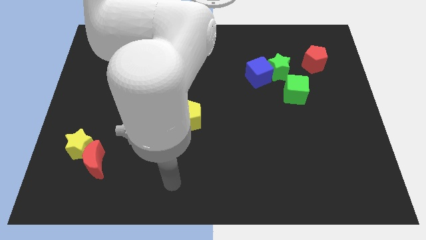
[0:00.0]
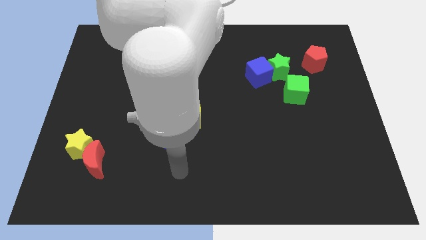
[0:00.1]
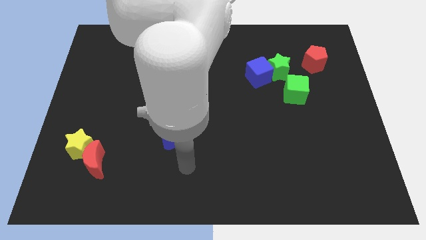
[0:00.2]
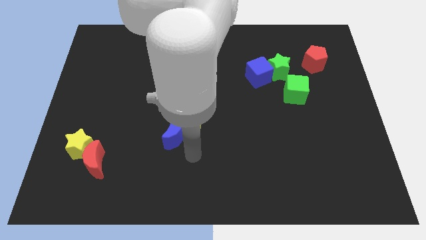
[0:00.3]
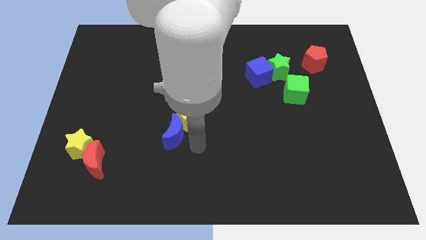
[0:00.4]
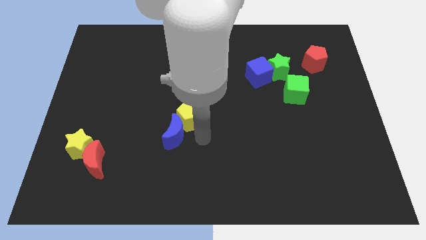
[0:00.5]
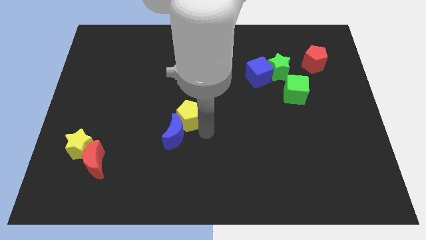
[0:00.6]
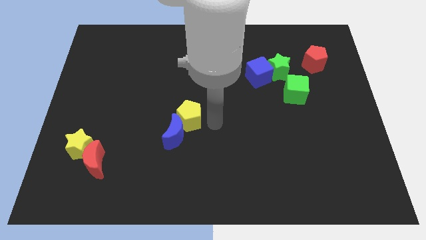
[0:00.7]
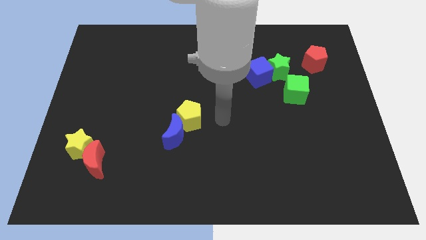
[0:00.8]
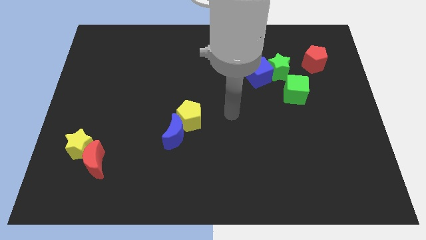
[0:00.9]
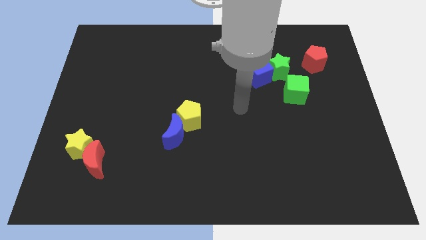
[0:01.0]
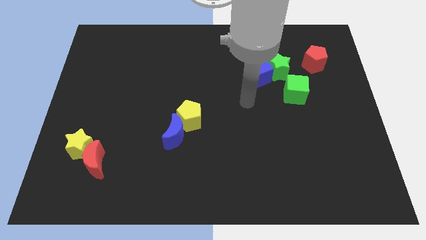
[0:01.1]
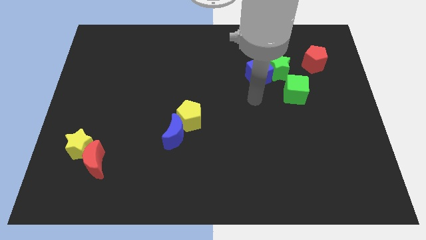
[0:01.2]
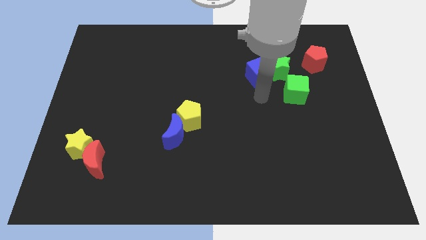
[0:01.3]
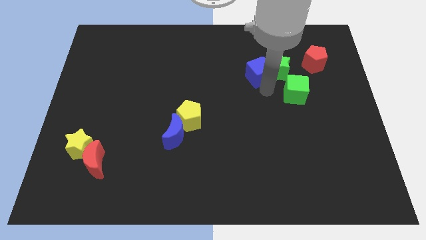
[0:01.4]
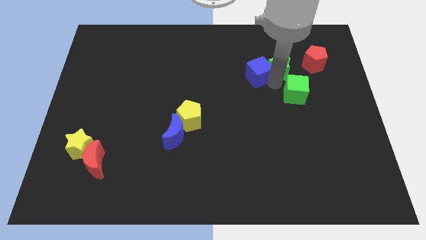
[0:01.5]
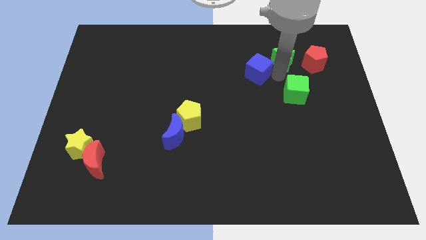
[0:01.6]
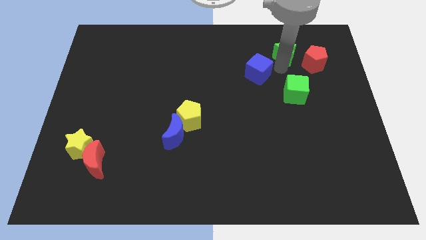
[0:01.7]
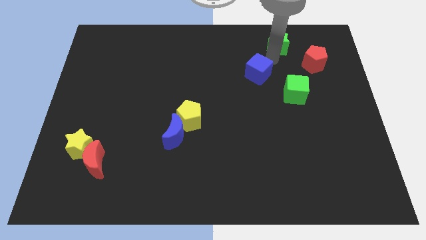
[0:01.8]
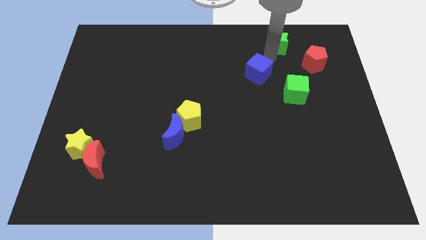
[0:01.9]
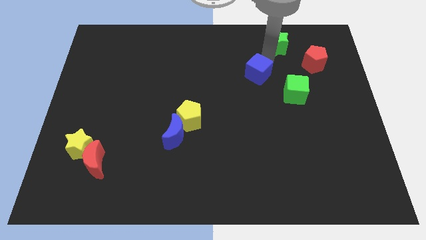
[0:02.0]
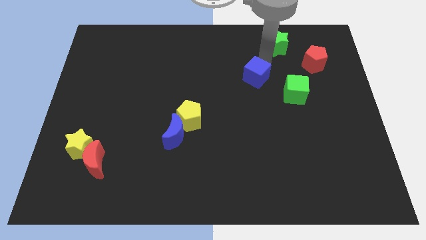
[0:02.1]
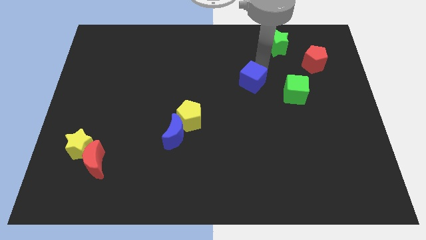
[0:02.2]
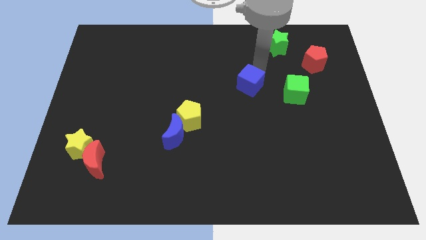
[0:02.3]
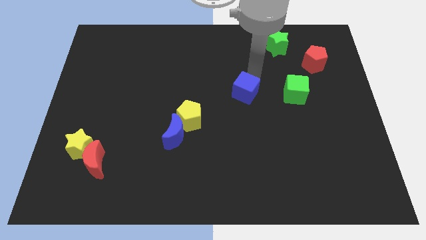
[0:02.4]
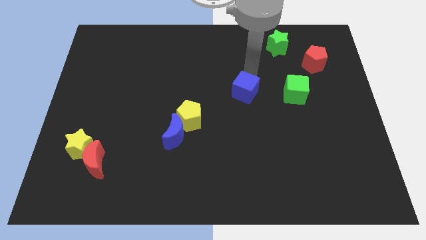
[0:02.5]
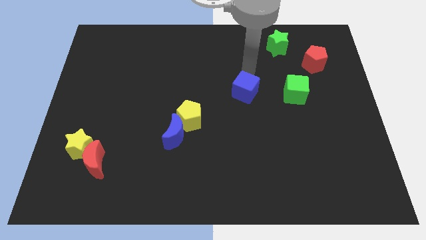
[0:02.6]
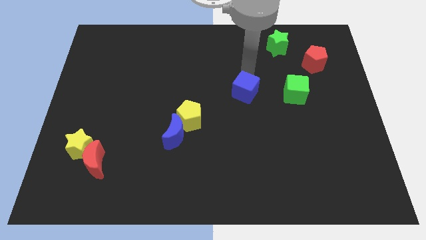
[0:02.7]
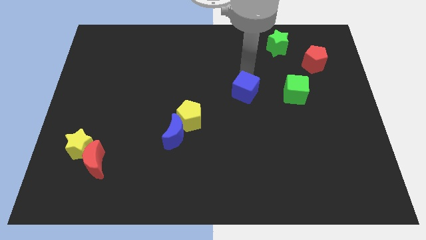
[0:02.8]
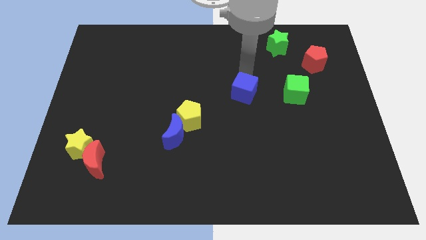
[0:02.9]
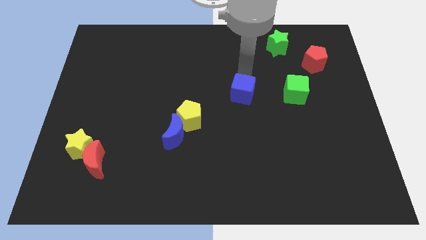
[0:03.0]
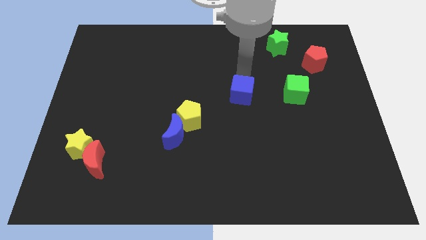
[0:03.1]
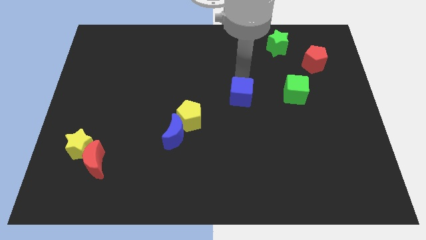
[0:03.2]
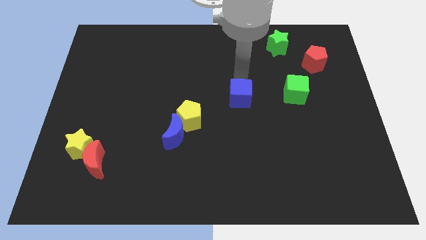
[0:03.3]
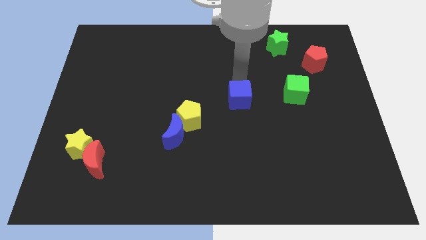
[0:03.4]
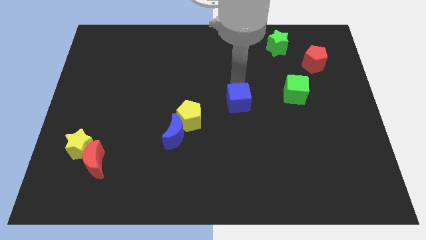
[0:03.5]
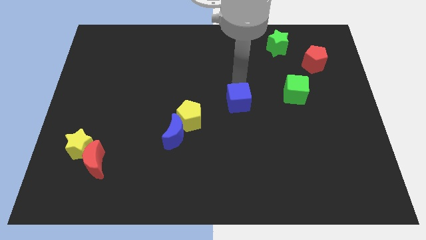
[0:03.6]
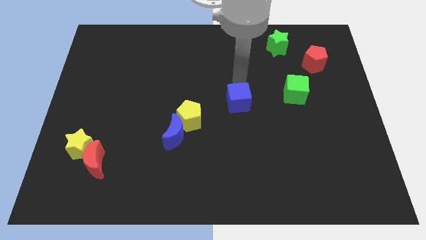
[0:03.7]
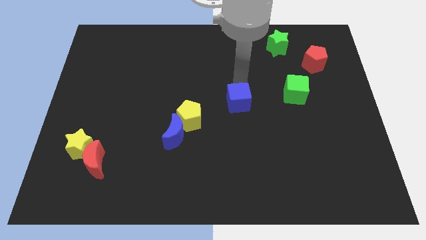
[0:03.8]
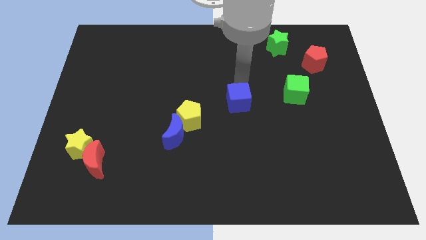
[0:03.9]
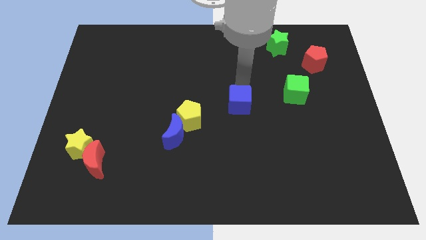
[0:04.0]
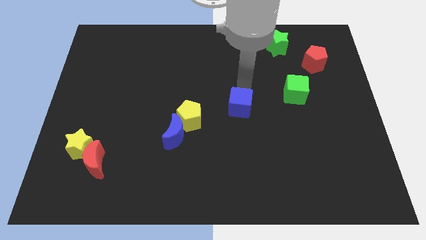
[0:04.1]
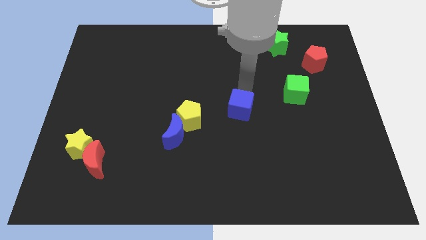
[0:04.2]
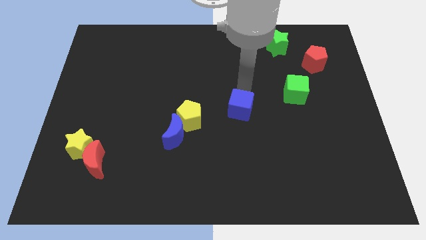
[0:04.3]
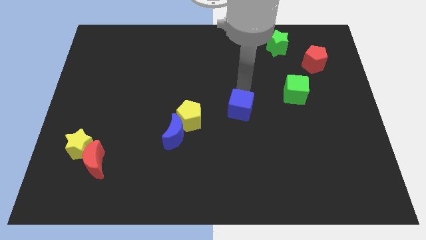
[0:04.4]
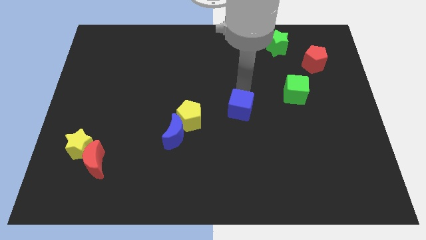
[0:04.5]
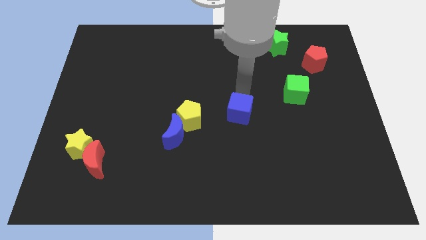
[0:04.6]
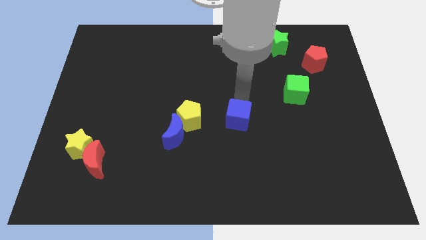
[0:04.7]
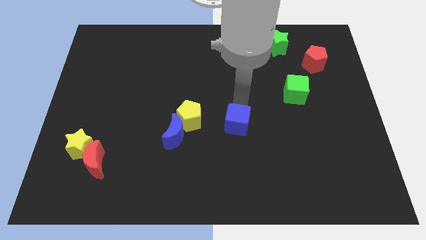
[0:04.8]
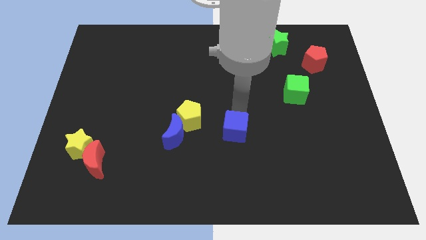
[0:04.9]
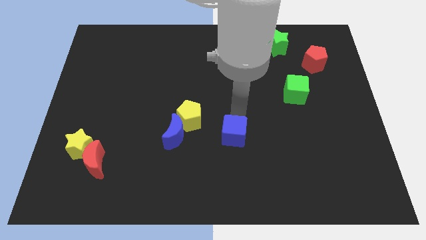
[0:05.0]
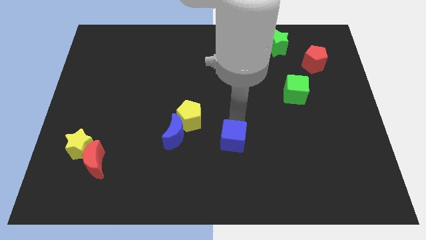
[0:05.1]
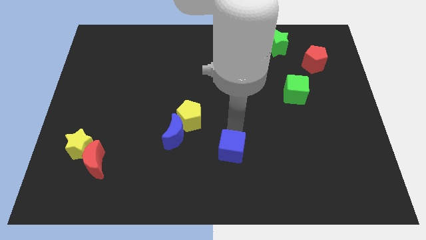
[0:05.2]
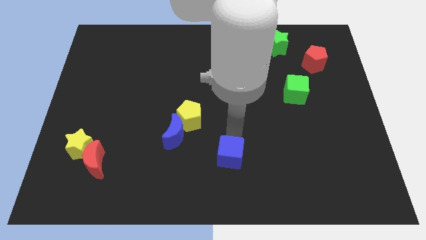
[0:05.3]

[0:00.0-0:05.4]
move the blue cube to the bottom side

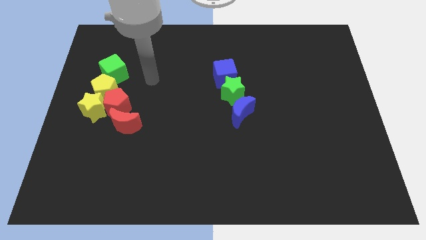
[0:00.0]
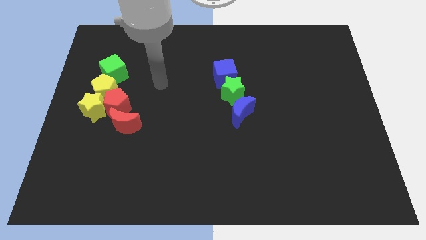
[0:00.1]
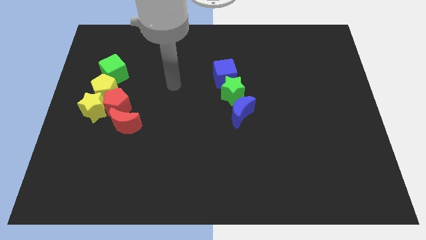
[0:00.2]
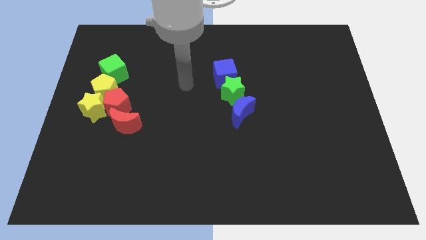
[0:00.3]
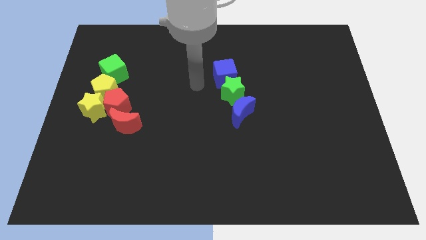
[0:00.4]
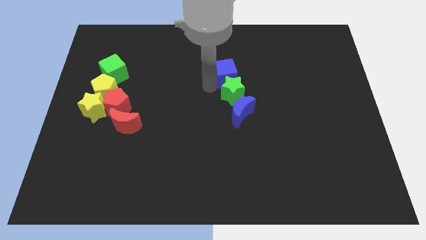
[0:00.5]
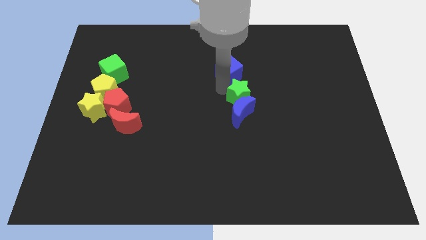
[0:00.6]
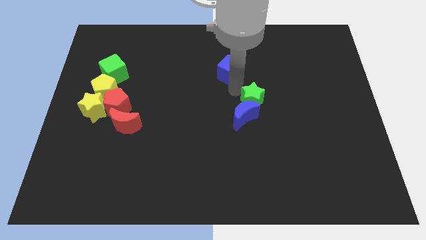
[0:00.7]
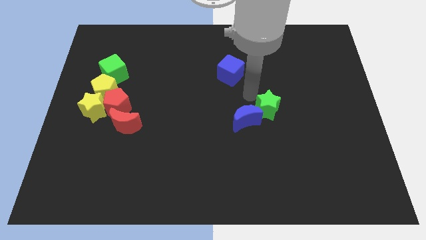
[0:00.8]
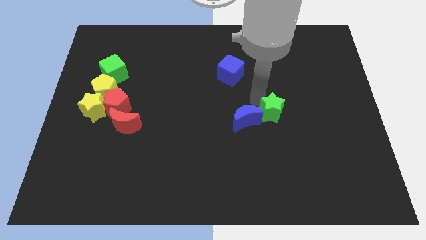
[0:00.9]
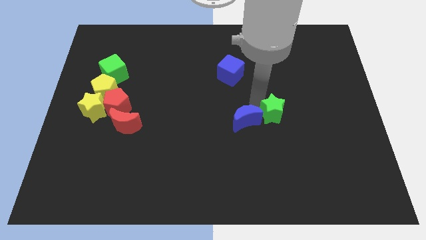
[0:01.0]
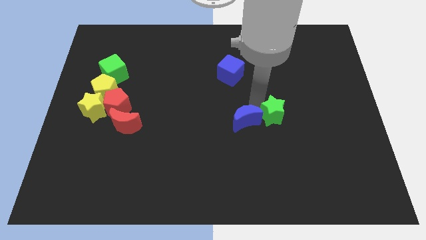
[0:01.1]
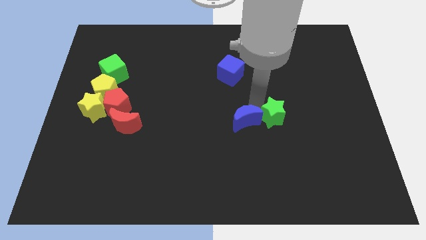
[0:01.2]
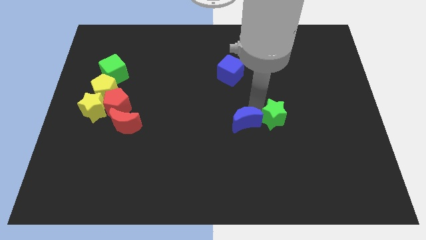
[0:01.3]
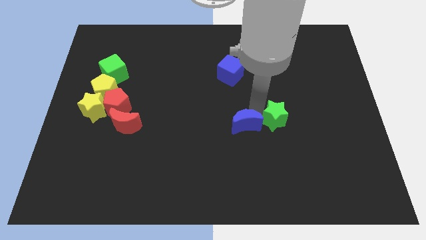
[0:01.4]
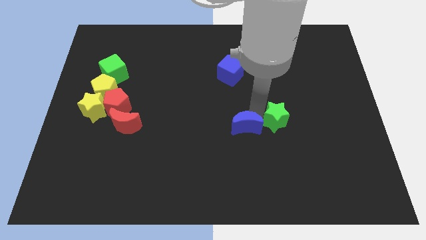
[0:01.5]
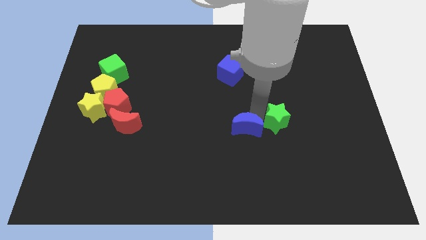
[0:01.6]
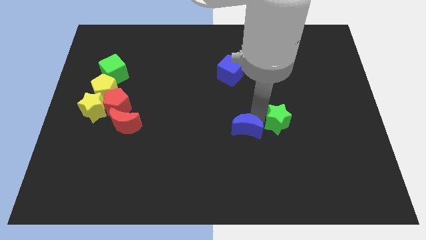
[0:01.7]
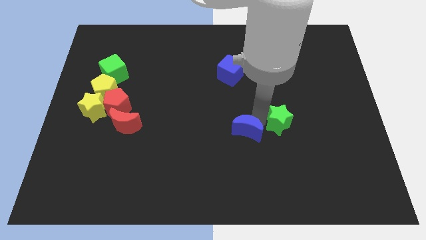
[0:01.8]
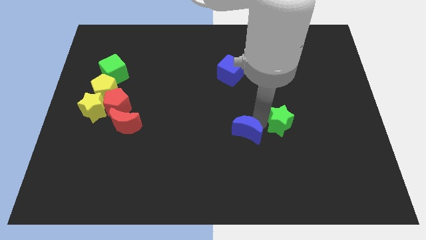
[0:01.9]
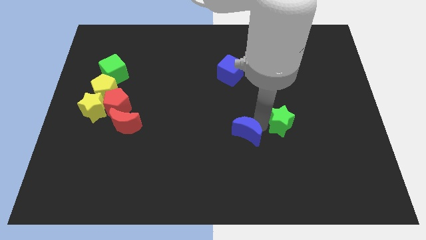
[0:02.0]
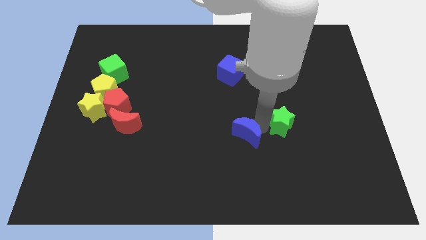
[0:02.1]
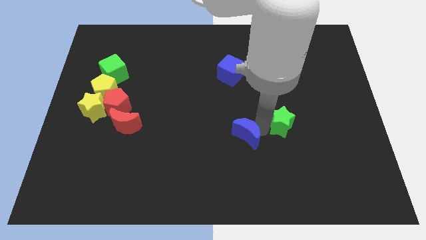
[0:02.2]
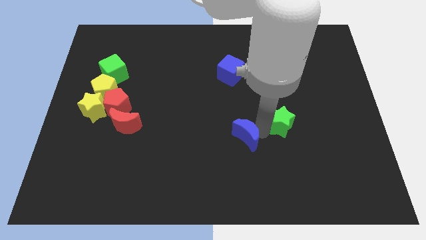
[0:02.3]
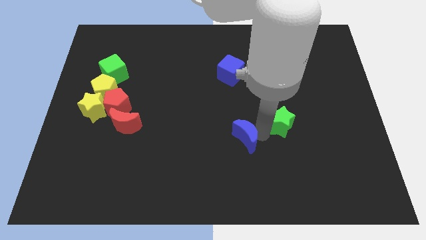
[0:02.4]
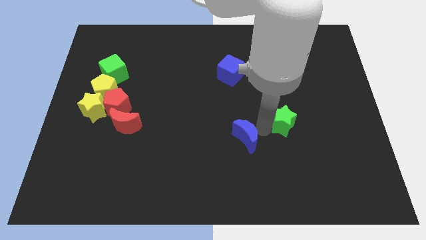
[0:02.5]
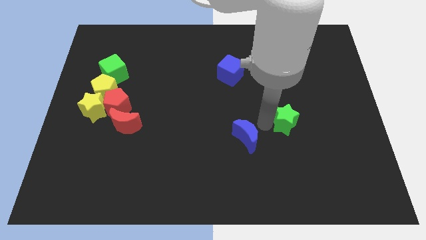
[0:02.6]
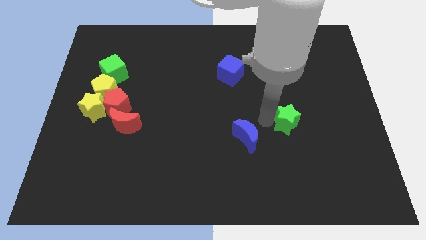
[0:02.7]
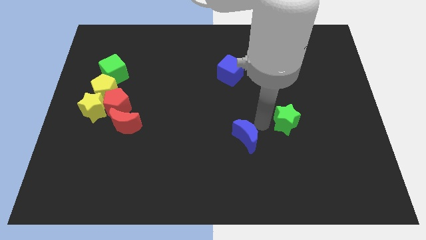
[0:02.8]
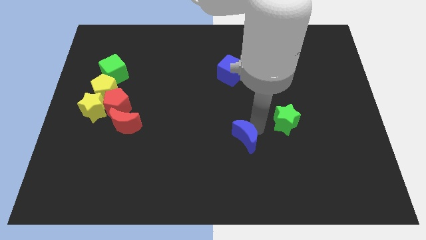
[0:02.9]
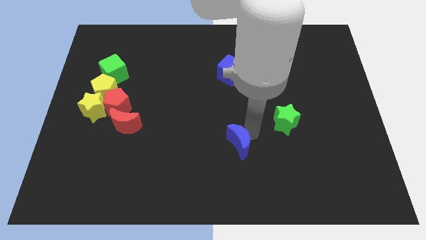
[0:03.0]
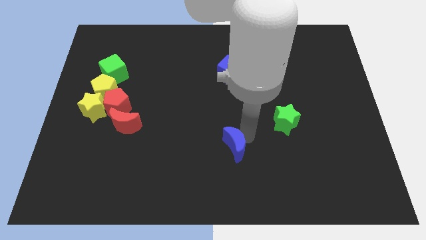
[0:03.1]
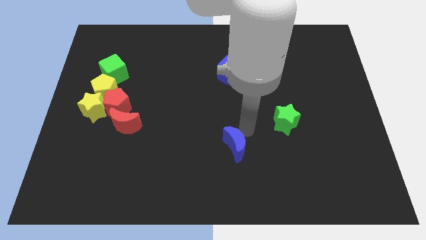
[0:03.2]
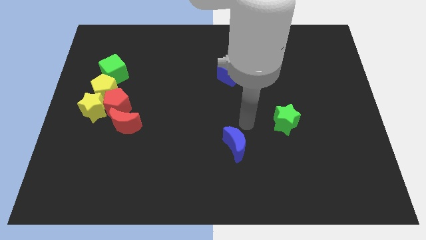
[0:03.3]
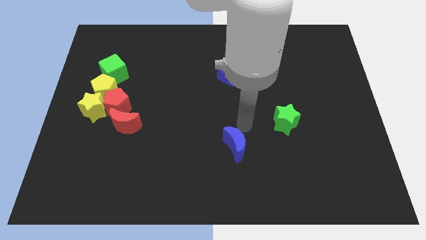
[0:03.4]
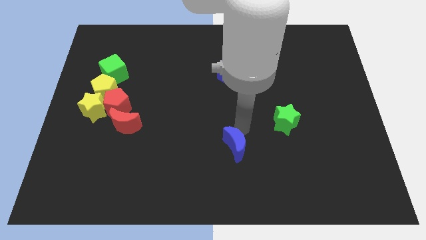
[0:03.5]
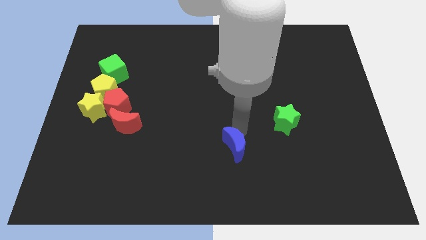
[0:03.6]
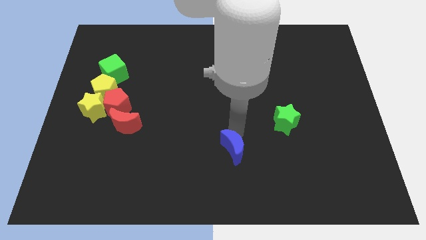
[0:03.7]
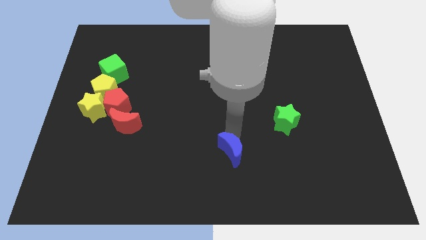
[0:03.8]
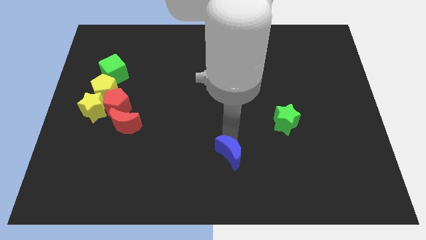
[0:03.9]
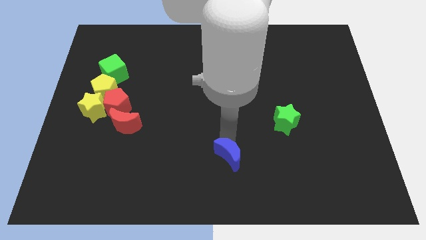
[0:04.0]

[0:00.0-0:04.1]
put the blue moon to the bottom
